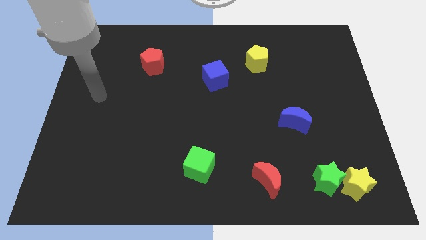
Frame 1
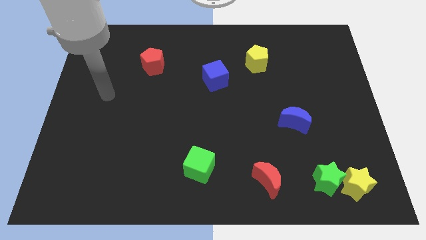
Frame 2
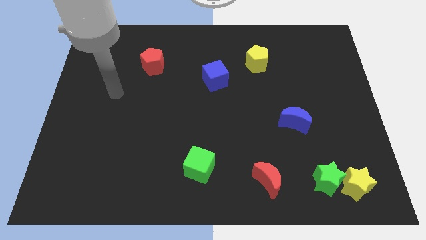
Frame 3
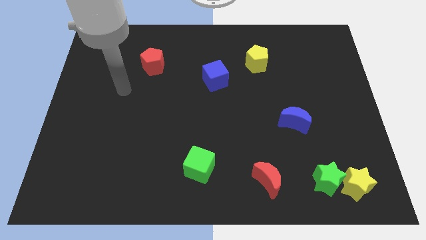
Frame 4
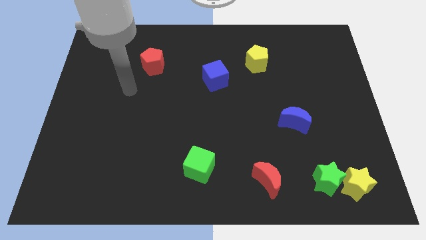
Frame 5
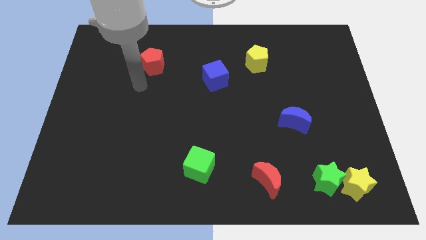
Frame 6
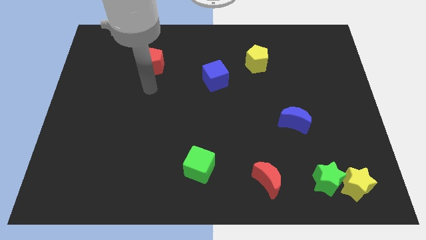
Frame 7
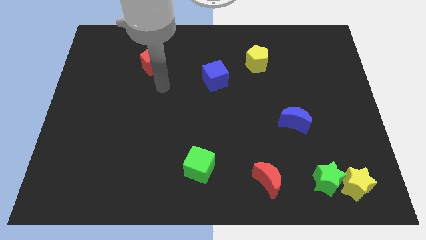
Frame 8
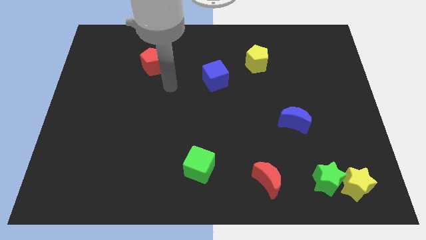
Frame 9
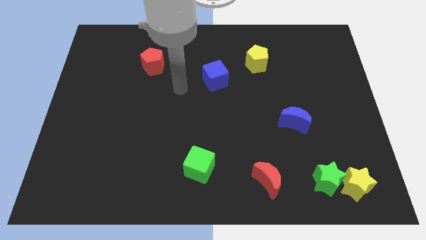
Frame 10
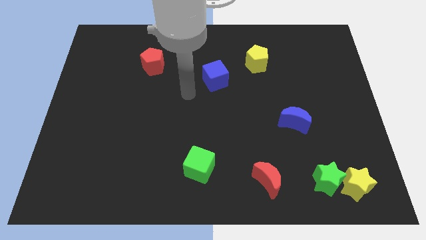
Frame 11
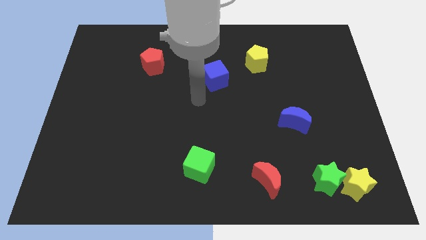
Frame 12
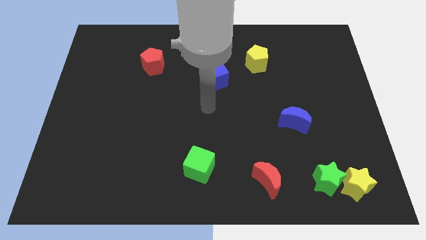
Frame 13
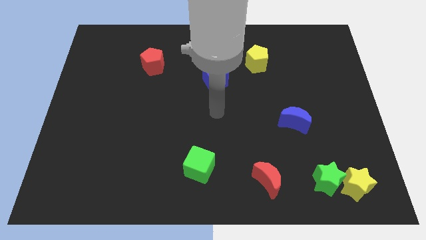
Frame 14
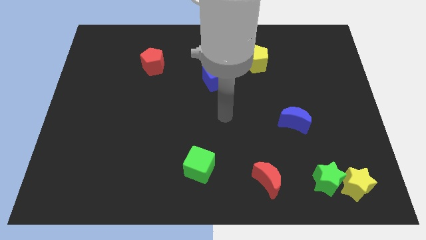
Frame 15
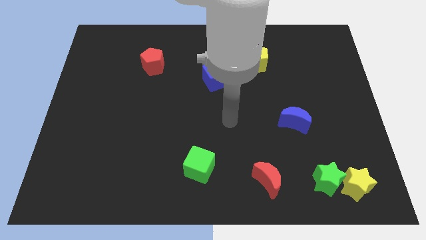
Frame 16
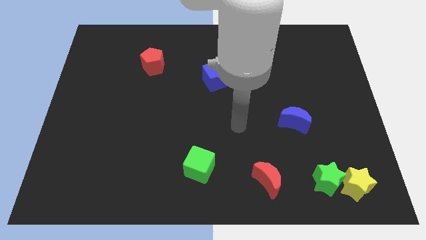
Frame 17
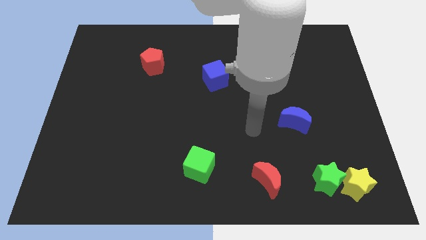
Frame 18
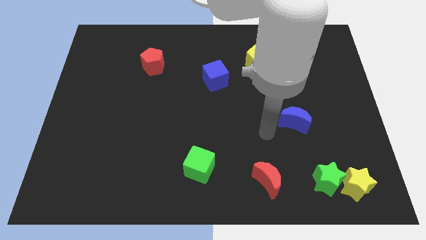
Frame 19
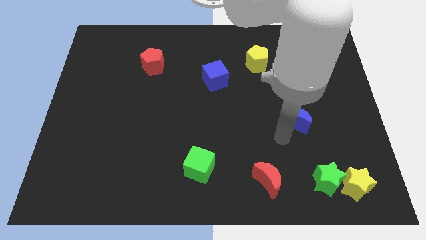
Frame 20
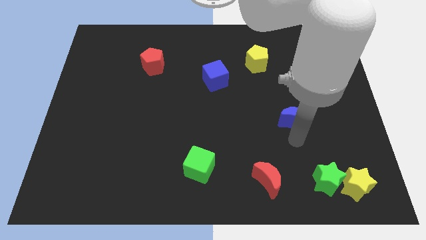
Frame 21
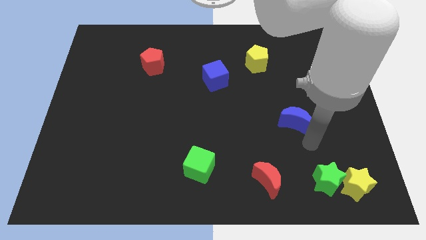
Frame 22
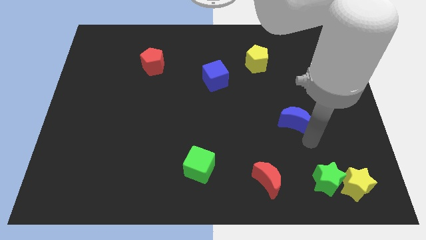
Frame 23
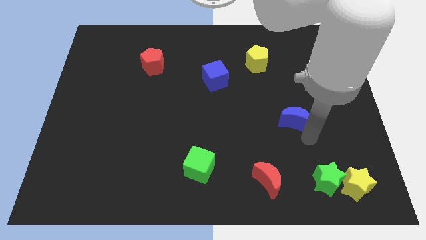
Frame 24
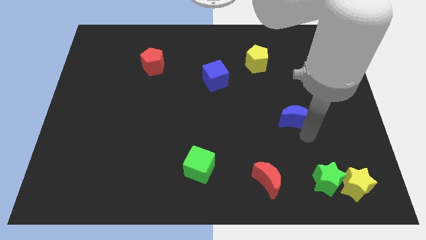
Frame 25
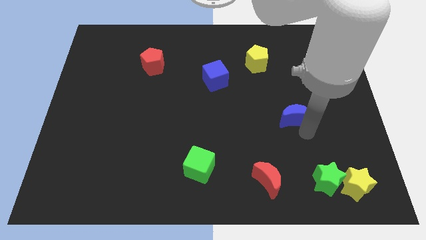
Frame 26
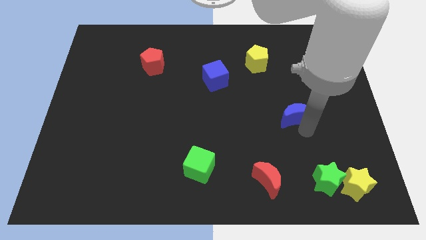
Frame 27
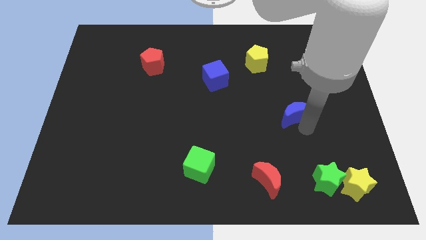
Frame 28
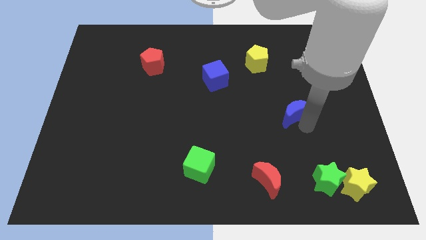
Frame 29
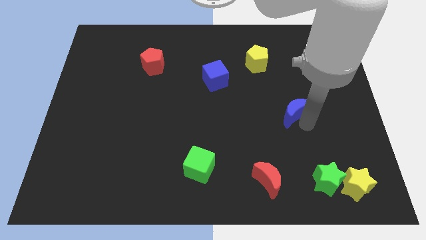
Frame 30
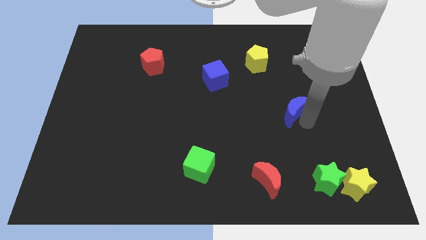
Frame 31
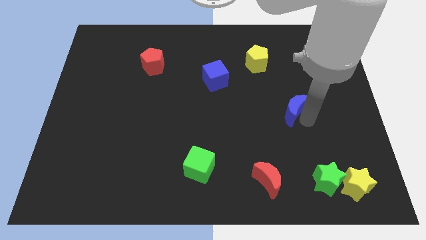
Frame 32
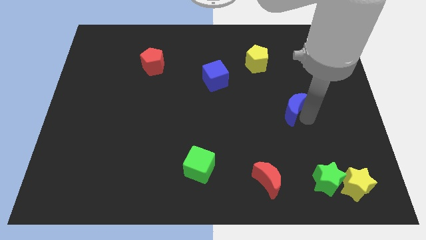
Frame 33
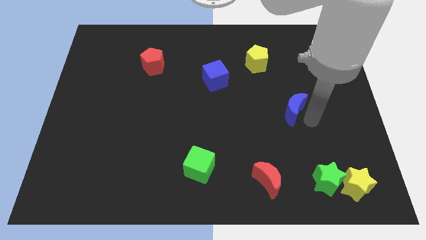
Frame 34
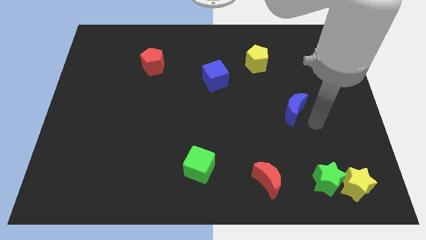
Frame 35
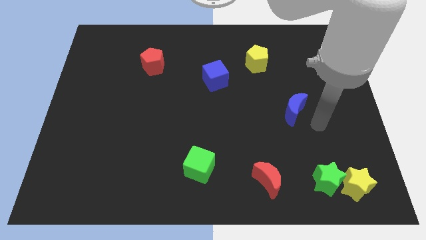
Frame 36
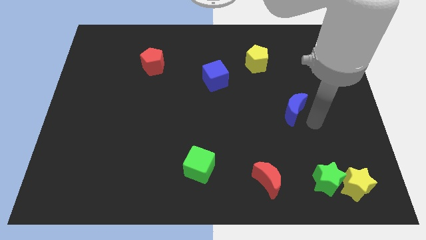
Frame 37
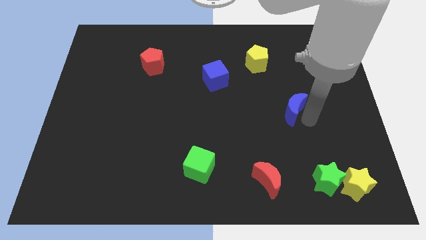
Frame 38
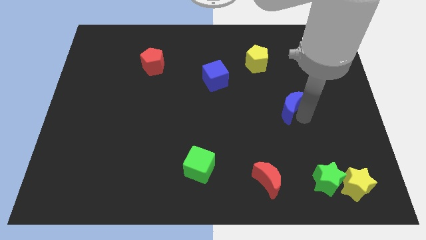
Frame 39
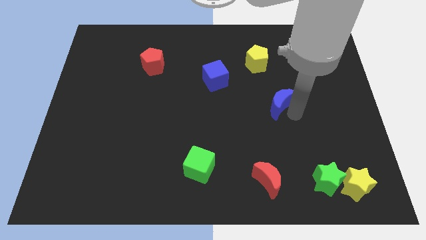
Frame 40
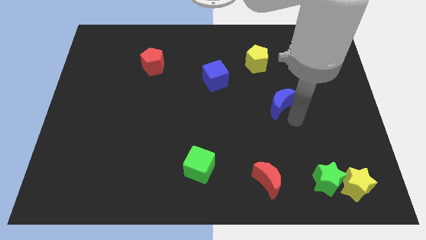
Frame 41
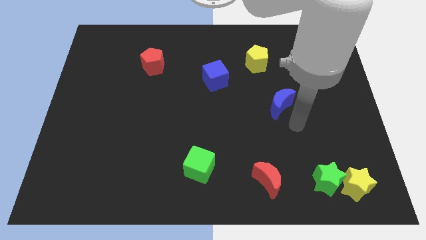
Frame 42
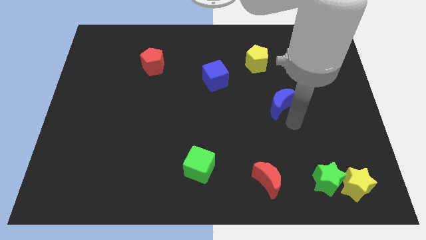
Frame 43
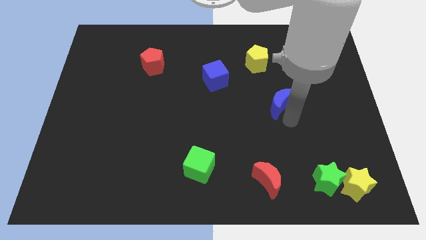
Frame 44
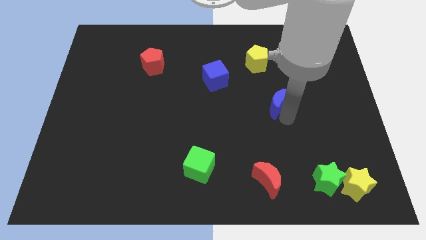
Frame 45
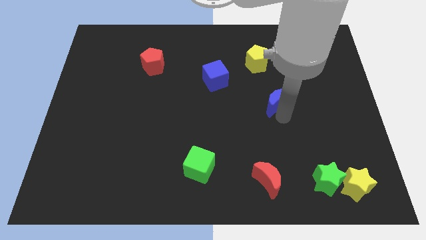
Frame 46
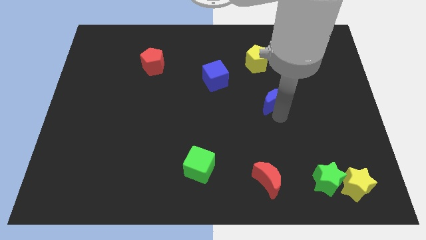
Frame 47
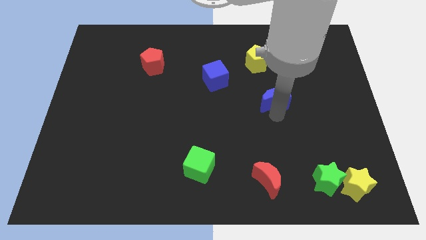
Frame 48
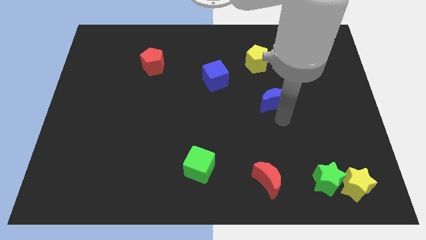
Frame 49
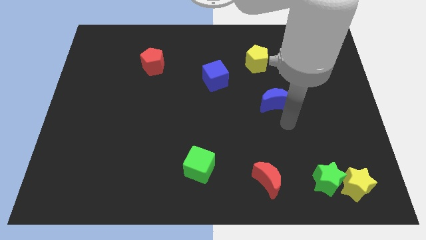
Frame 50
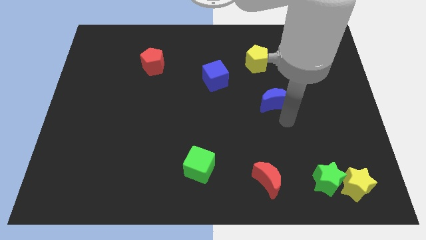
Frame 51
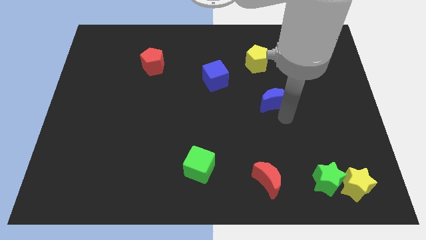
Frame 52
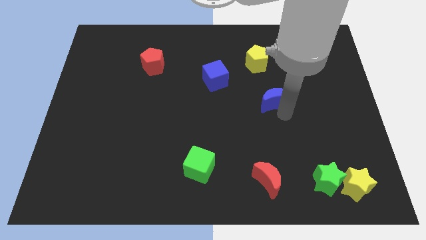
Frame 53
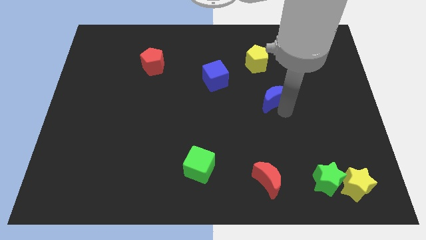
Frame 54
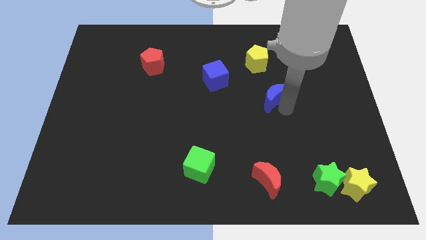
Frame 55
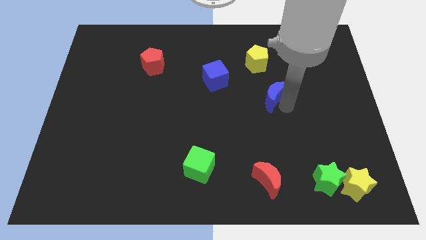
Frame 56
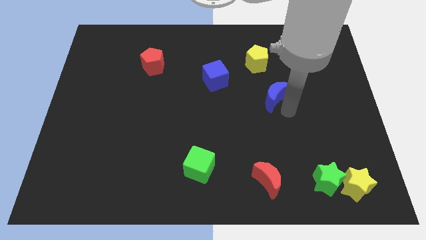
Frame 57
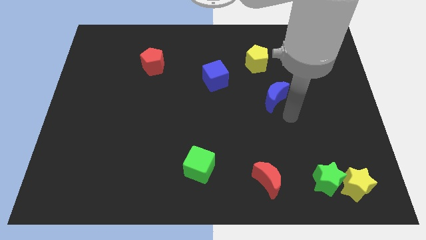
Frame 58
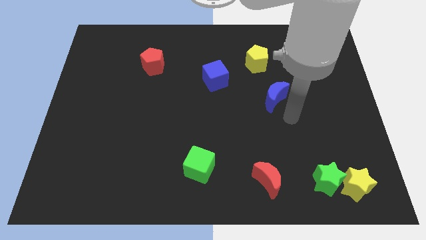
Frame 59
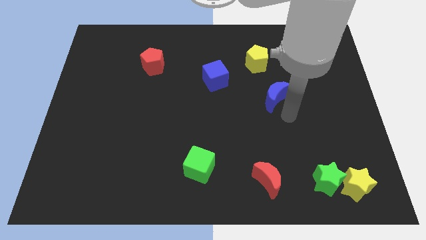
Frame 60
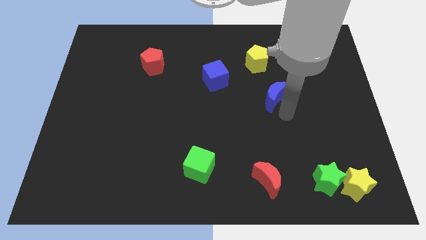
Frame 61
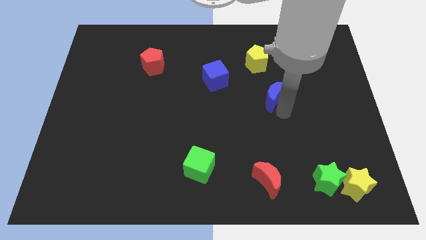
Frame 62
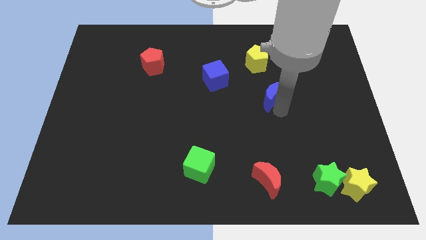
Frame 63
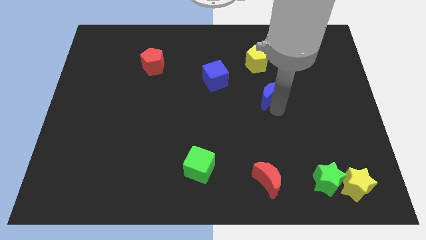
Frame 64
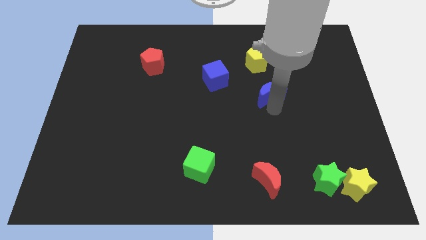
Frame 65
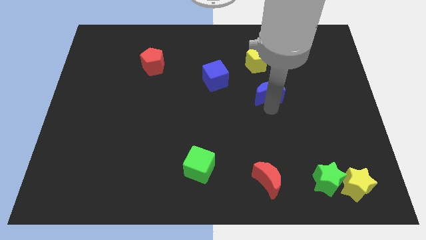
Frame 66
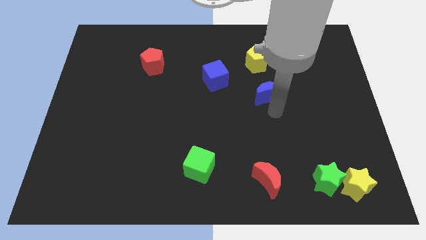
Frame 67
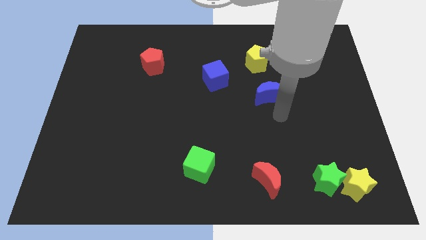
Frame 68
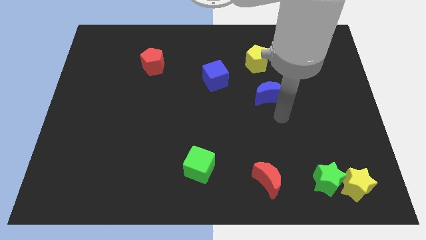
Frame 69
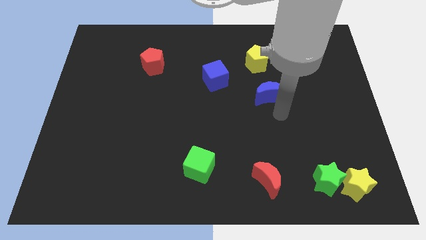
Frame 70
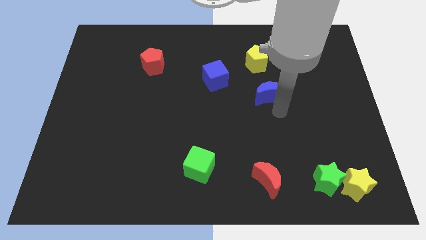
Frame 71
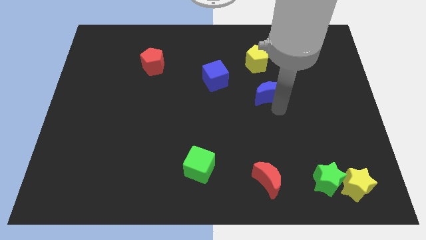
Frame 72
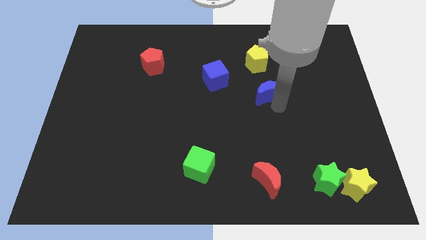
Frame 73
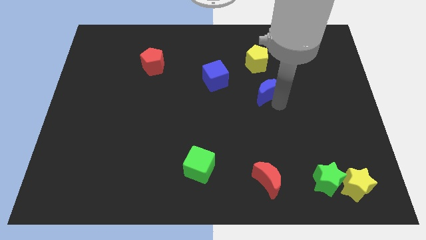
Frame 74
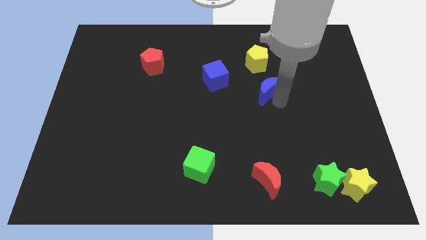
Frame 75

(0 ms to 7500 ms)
push the blue moon to the right side of the blue cube
